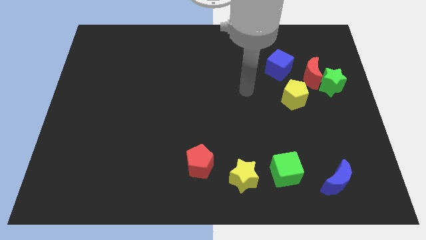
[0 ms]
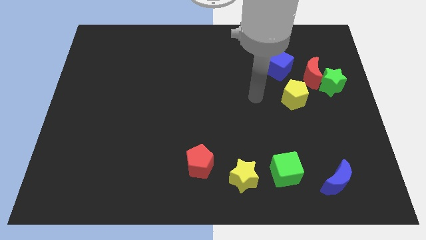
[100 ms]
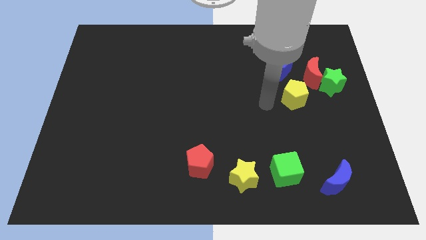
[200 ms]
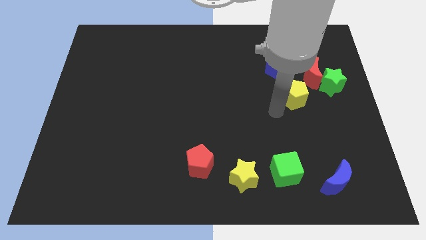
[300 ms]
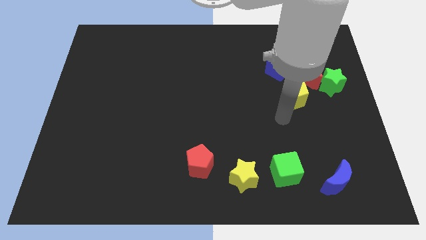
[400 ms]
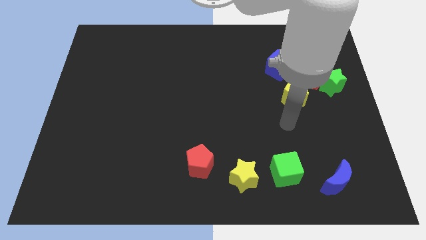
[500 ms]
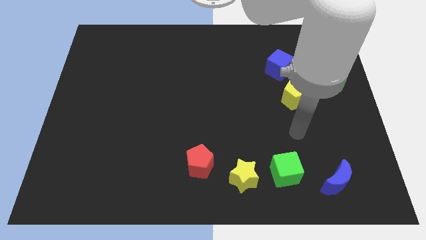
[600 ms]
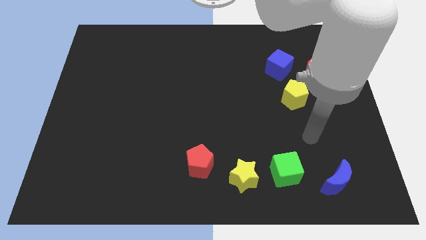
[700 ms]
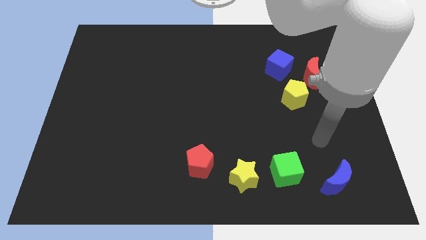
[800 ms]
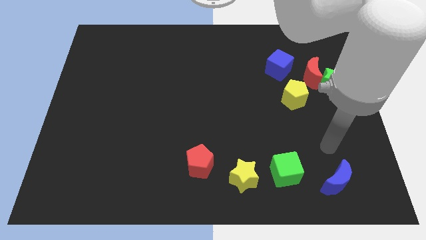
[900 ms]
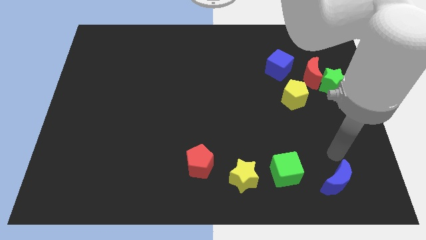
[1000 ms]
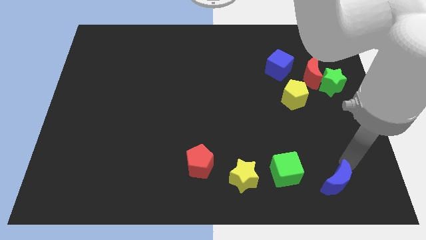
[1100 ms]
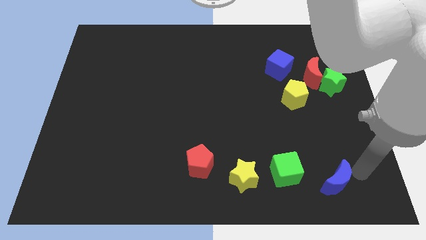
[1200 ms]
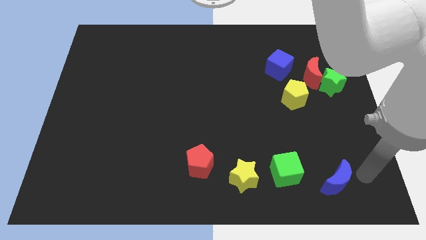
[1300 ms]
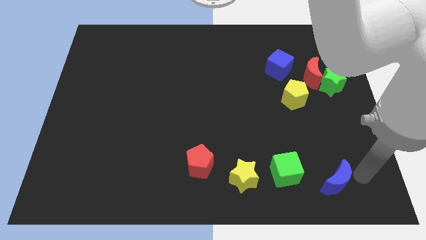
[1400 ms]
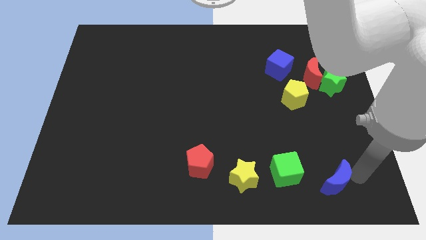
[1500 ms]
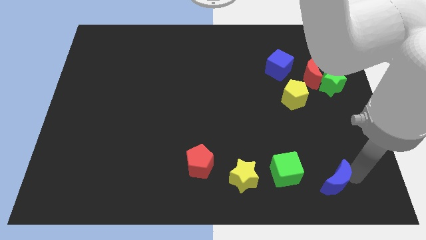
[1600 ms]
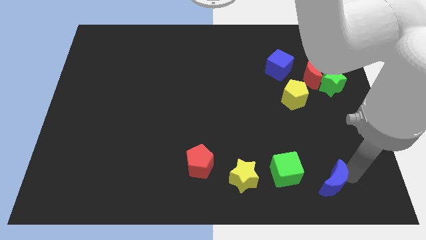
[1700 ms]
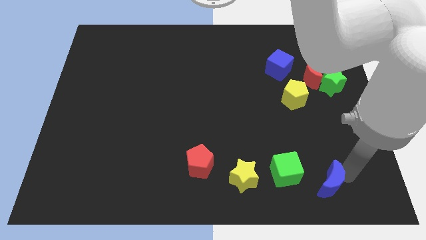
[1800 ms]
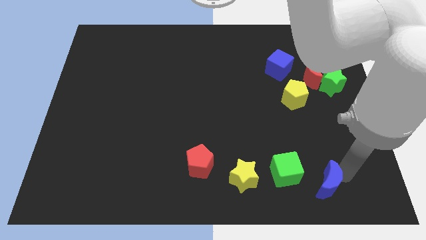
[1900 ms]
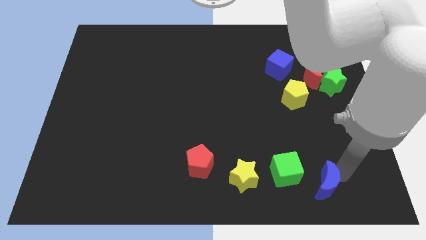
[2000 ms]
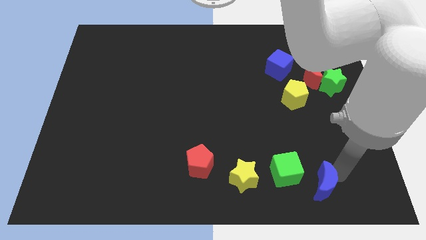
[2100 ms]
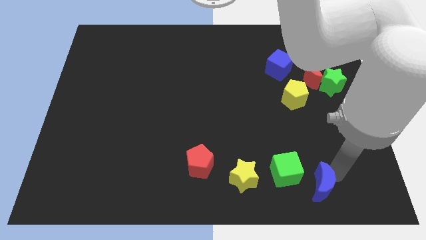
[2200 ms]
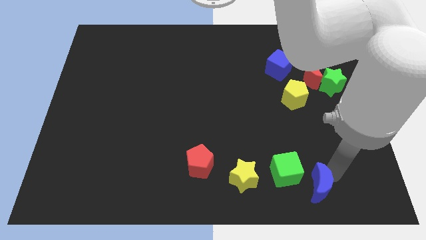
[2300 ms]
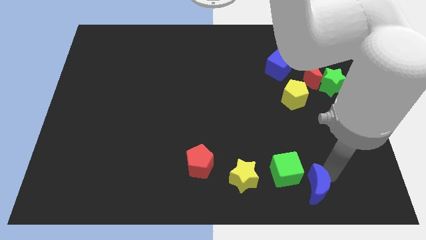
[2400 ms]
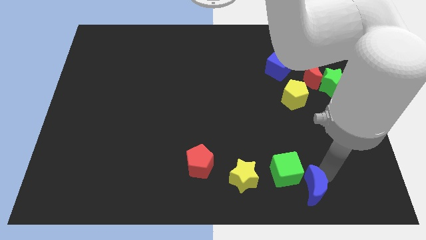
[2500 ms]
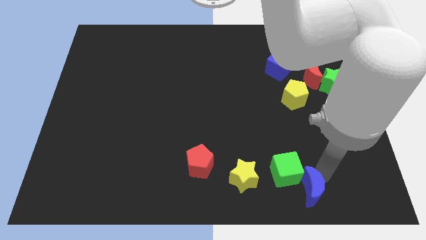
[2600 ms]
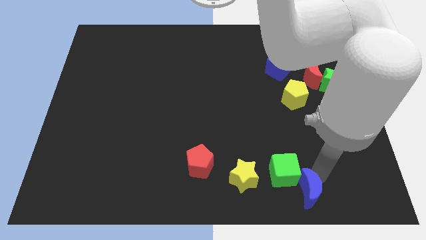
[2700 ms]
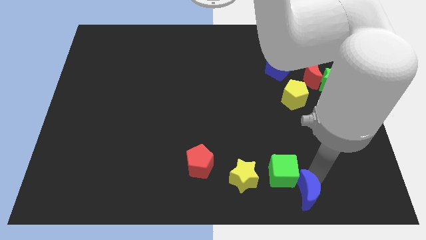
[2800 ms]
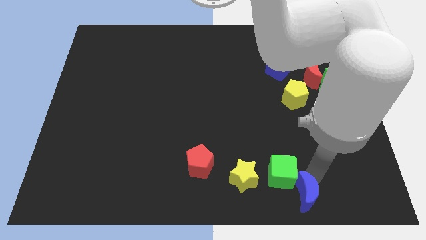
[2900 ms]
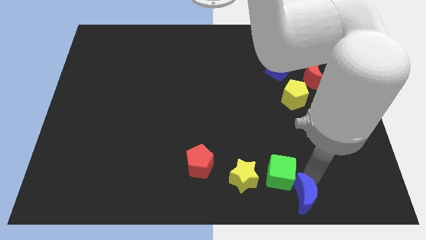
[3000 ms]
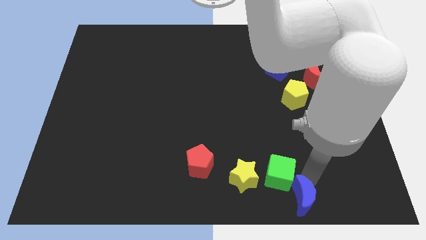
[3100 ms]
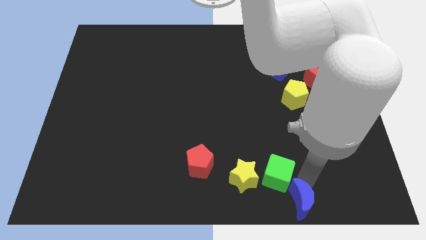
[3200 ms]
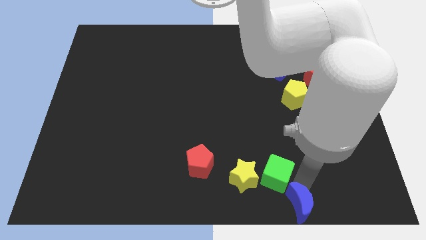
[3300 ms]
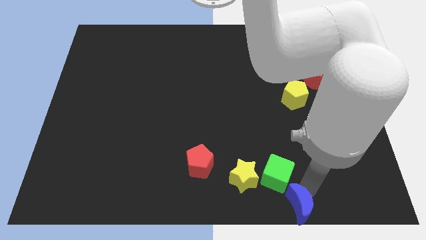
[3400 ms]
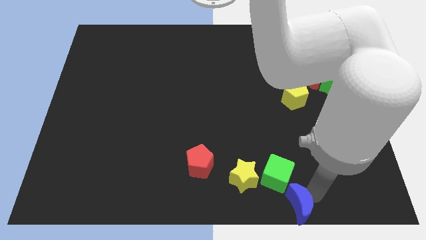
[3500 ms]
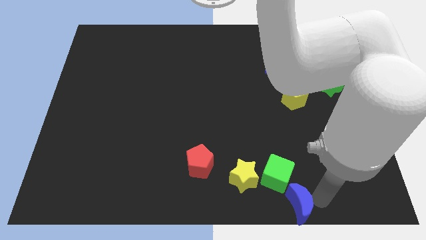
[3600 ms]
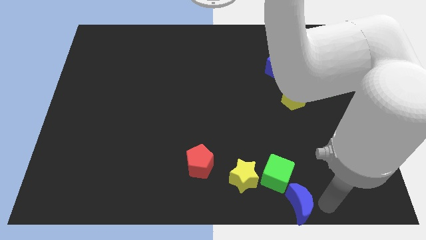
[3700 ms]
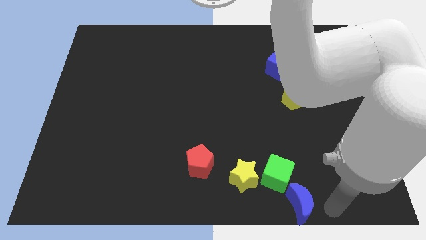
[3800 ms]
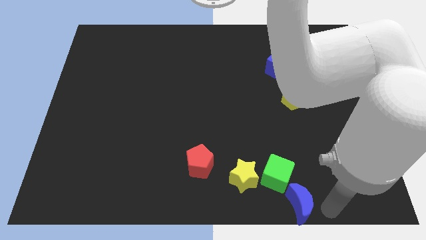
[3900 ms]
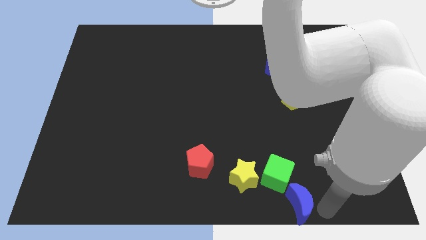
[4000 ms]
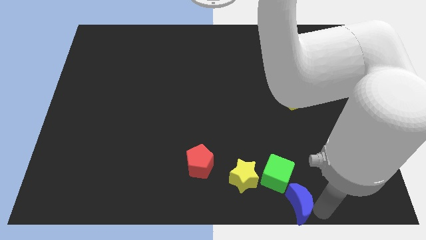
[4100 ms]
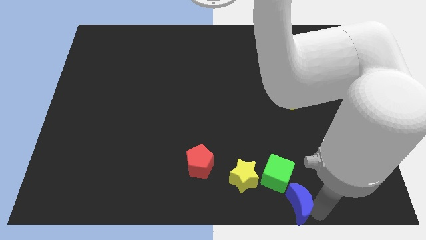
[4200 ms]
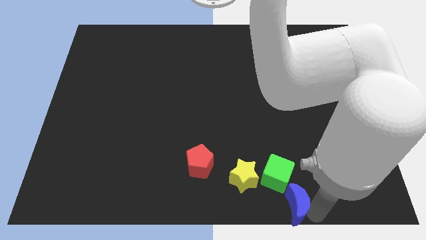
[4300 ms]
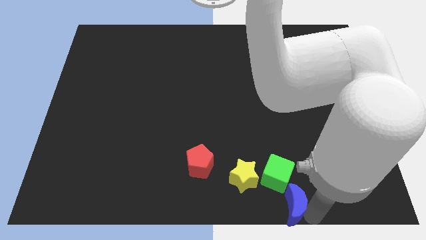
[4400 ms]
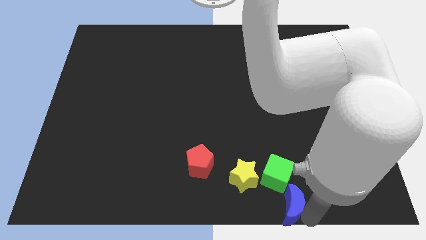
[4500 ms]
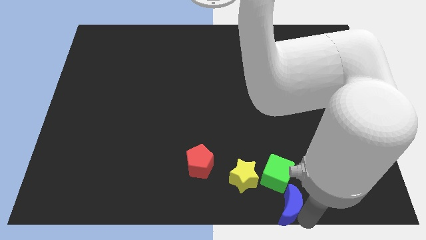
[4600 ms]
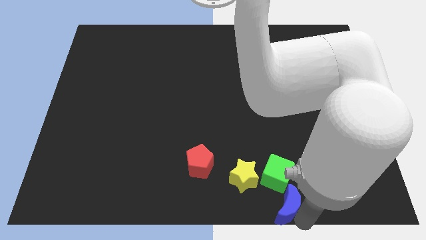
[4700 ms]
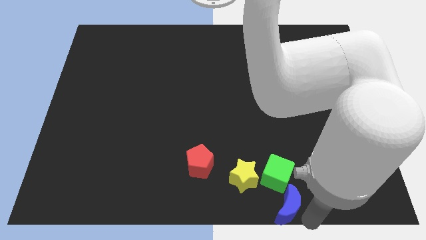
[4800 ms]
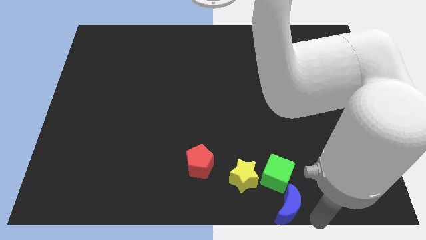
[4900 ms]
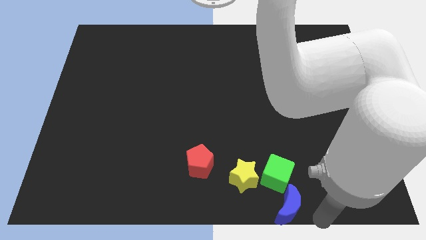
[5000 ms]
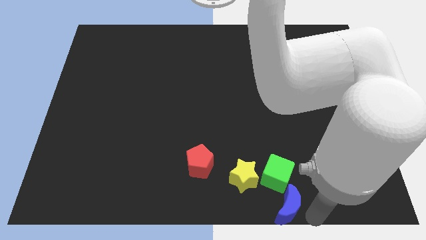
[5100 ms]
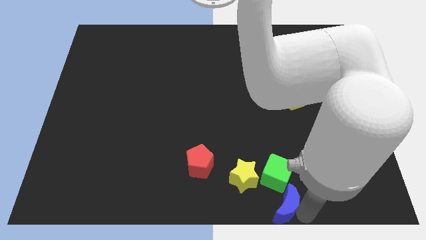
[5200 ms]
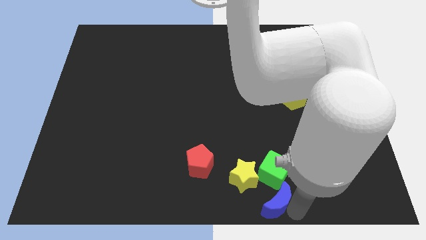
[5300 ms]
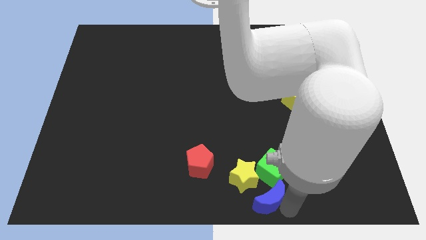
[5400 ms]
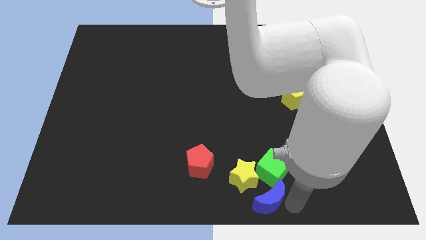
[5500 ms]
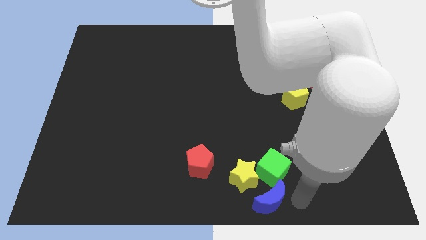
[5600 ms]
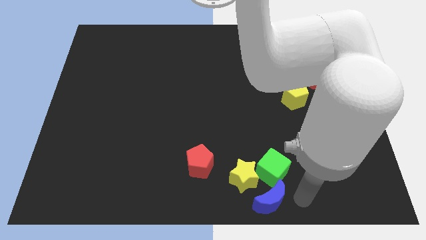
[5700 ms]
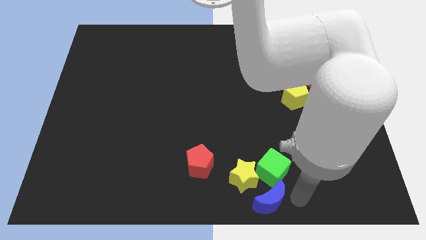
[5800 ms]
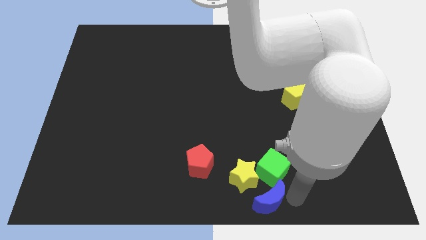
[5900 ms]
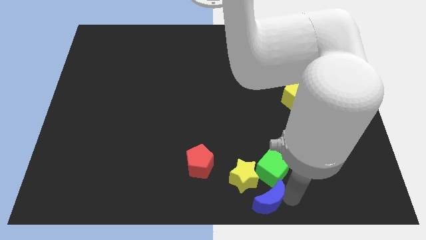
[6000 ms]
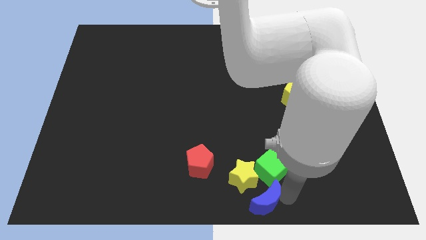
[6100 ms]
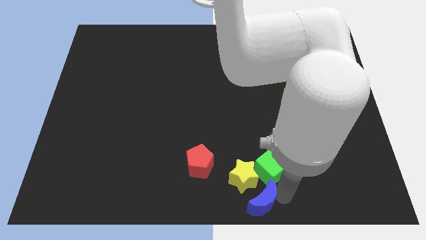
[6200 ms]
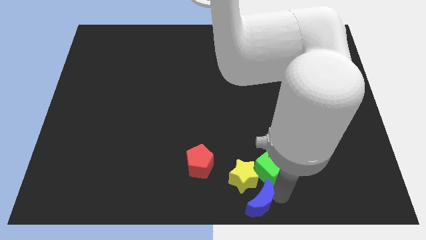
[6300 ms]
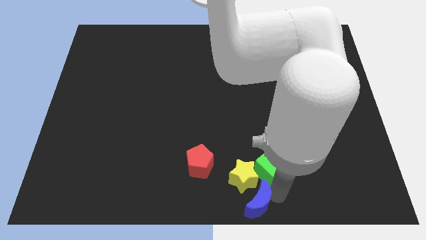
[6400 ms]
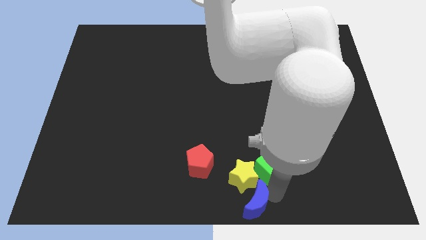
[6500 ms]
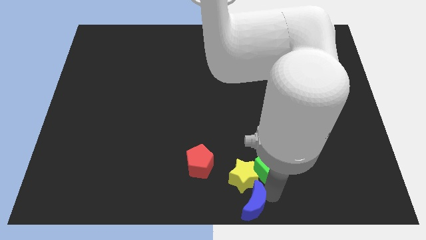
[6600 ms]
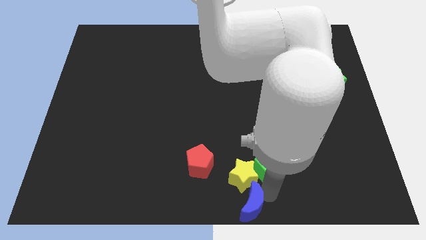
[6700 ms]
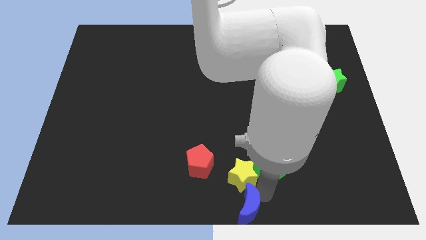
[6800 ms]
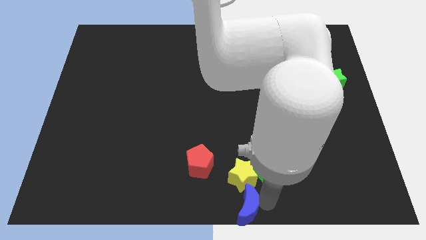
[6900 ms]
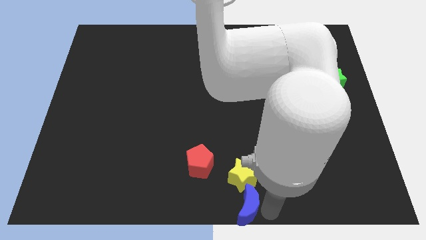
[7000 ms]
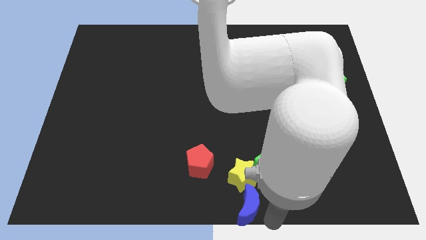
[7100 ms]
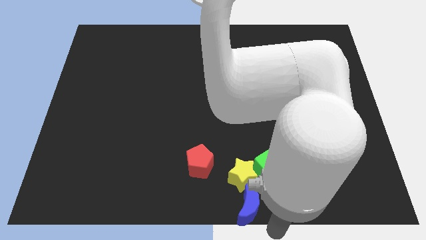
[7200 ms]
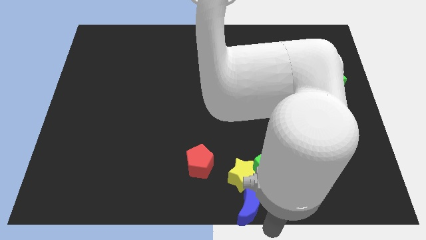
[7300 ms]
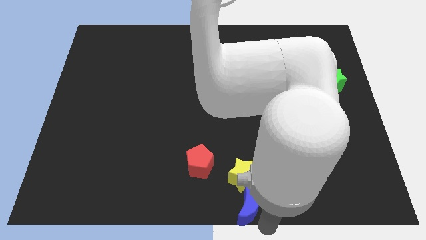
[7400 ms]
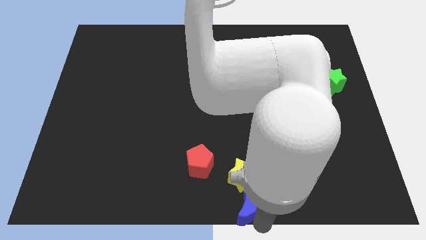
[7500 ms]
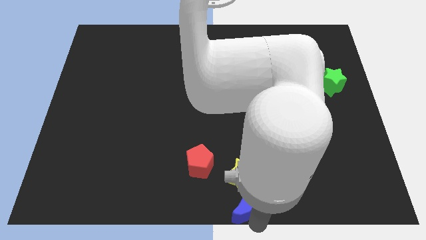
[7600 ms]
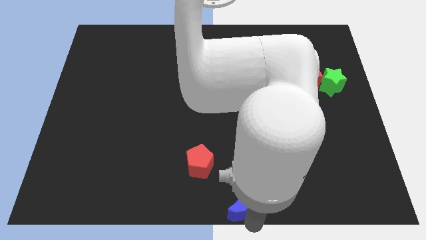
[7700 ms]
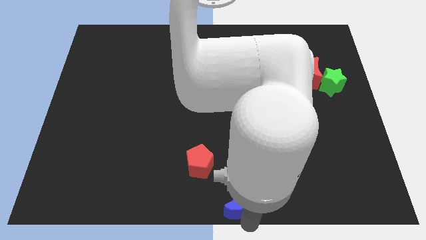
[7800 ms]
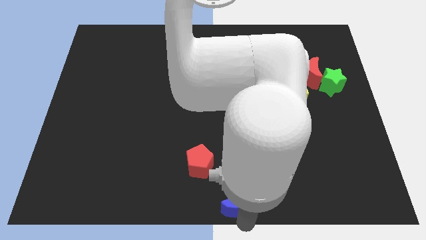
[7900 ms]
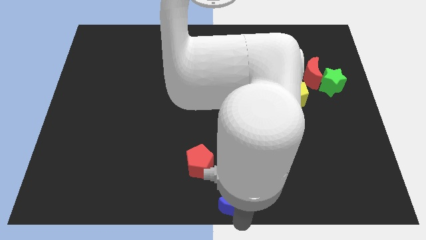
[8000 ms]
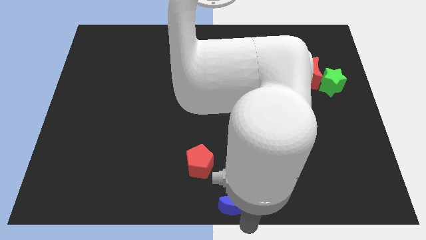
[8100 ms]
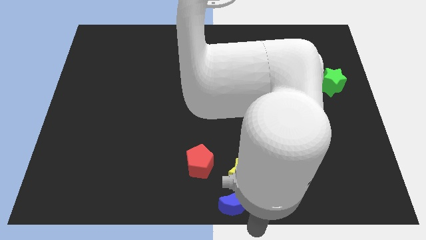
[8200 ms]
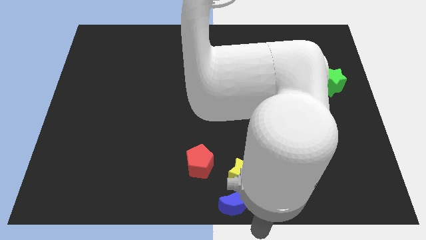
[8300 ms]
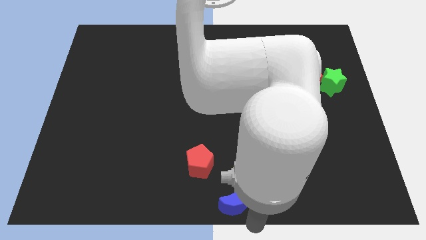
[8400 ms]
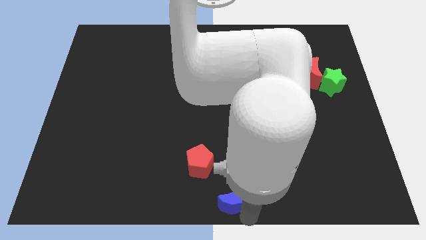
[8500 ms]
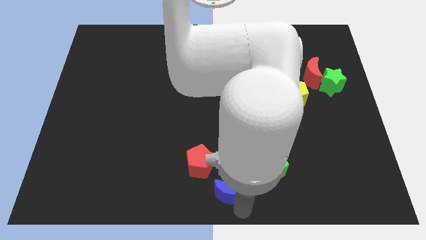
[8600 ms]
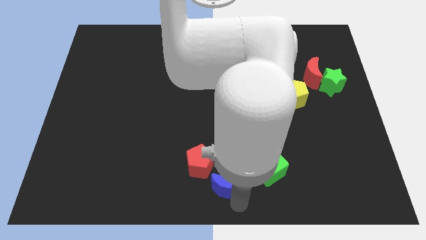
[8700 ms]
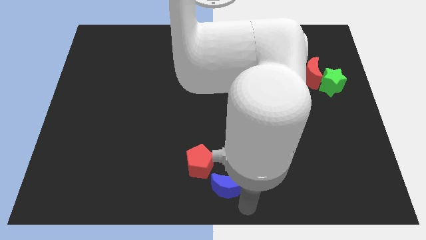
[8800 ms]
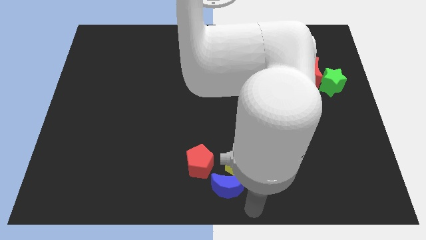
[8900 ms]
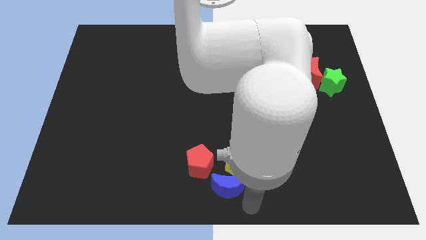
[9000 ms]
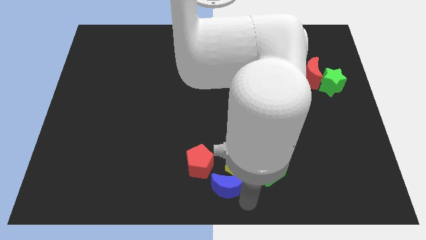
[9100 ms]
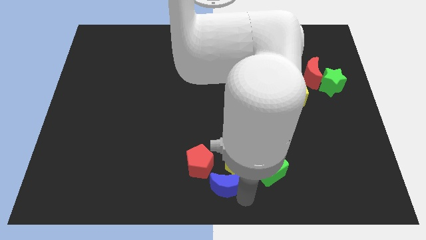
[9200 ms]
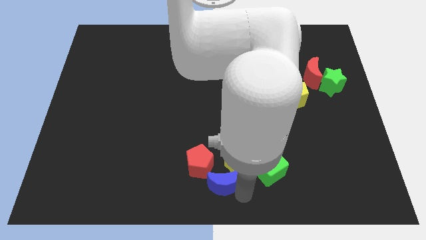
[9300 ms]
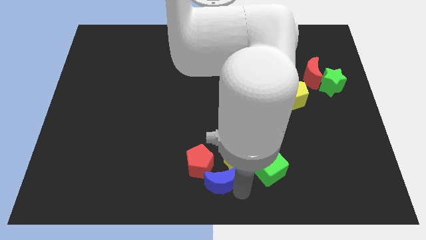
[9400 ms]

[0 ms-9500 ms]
slide the blue moon towards the red pentagon
